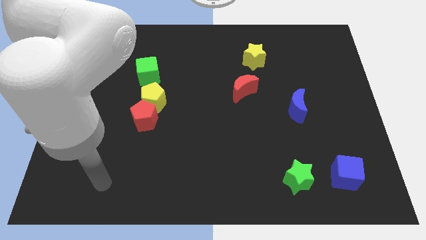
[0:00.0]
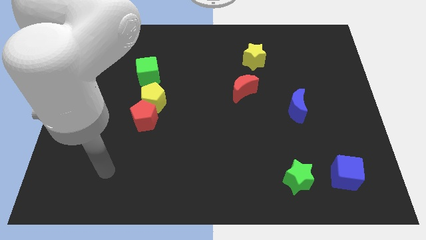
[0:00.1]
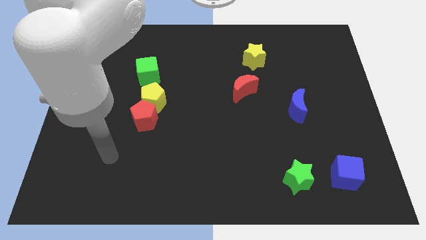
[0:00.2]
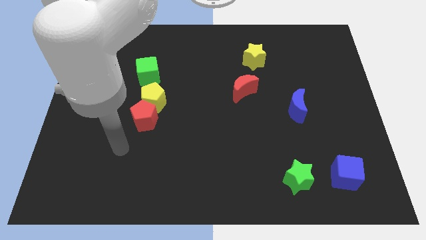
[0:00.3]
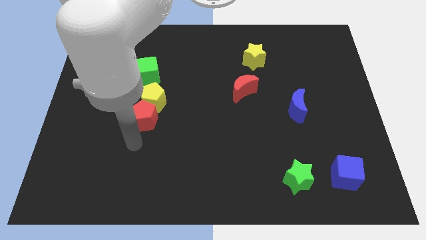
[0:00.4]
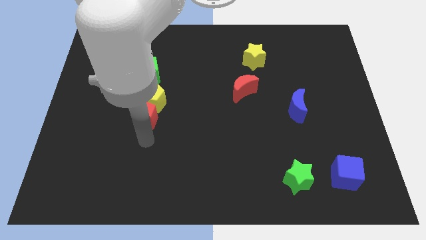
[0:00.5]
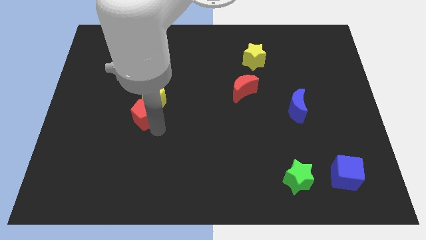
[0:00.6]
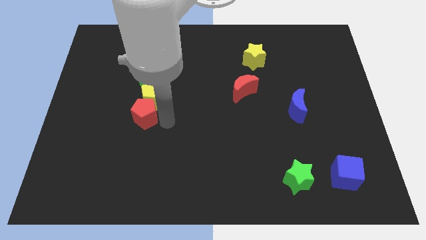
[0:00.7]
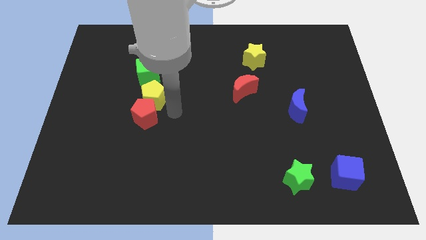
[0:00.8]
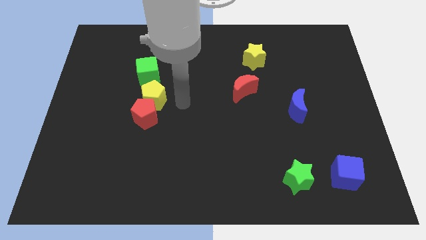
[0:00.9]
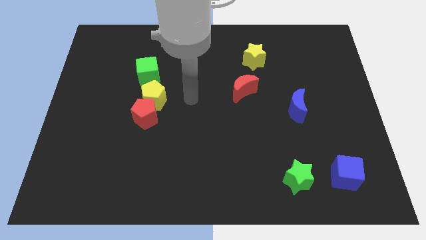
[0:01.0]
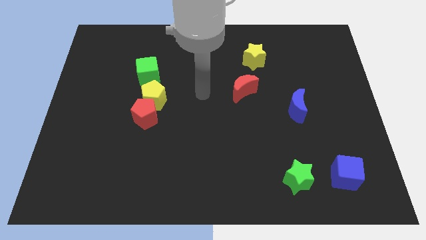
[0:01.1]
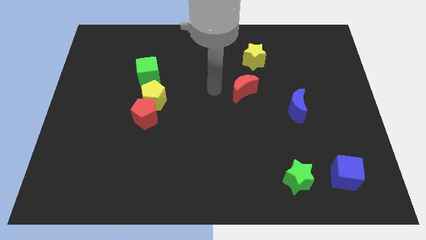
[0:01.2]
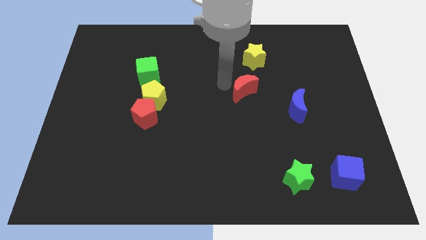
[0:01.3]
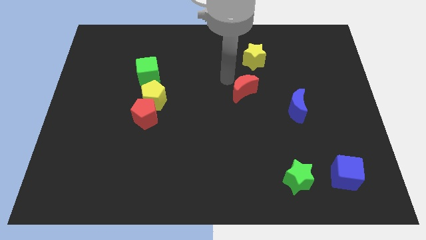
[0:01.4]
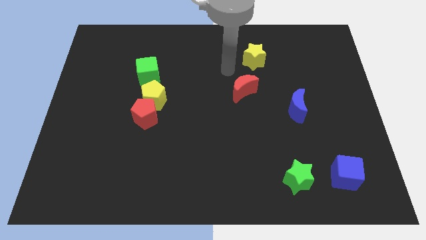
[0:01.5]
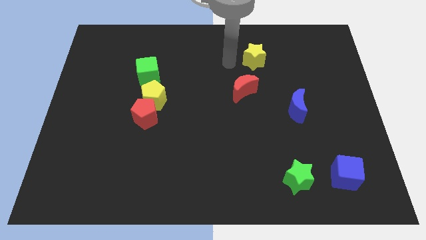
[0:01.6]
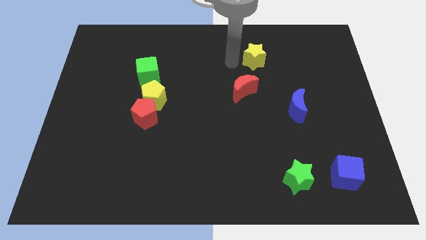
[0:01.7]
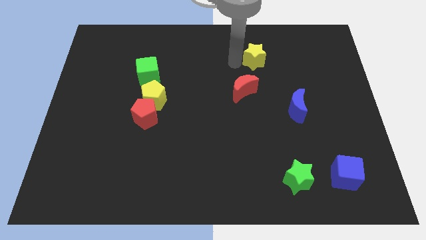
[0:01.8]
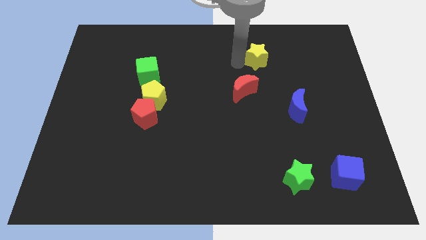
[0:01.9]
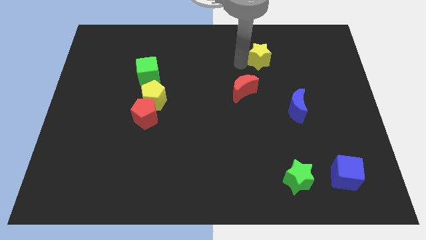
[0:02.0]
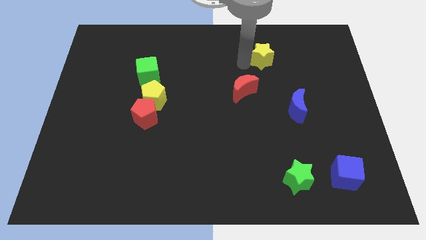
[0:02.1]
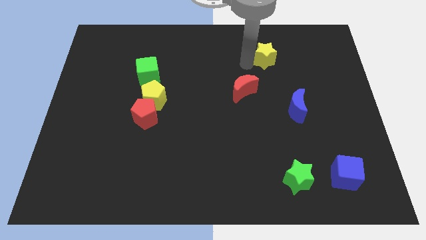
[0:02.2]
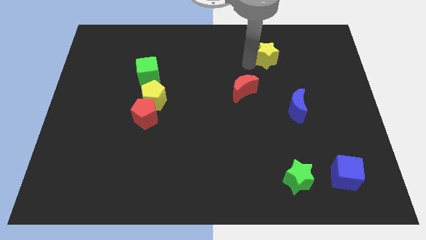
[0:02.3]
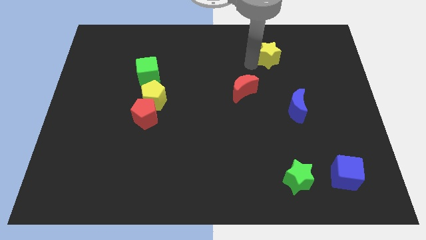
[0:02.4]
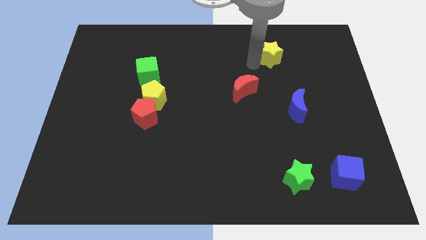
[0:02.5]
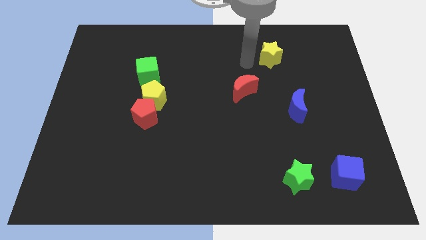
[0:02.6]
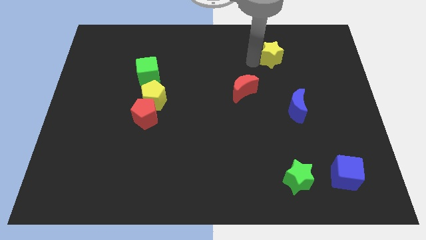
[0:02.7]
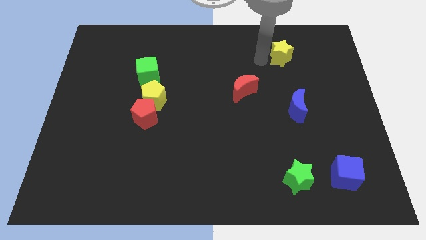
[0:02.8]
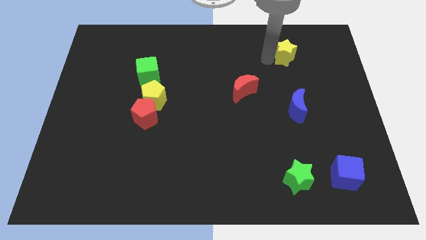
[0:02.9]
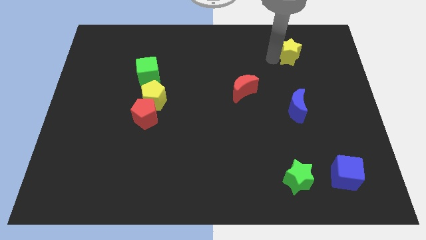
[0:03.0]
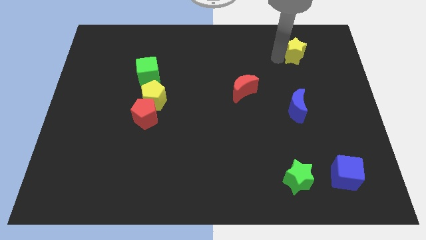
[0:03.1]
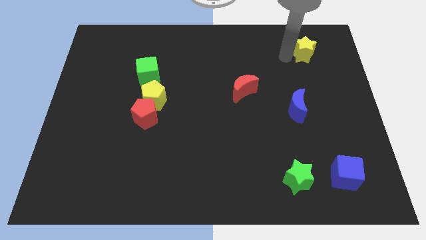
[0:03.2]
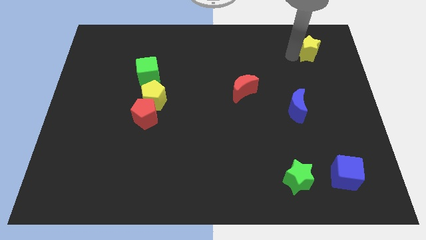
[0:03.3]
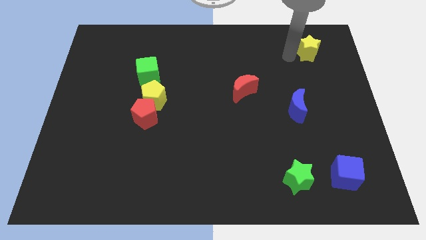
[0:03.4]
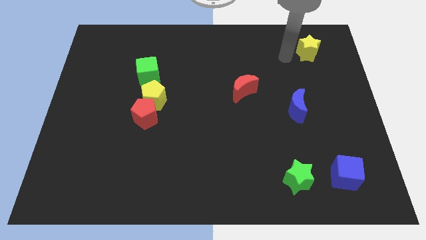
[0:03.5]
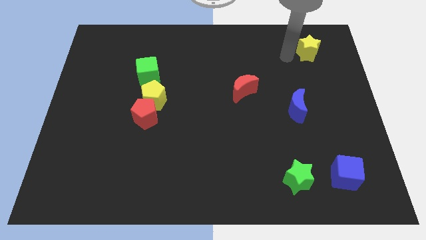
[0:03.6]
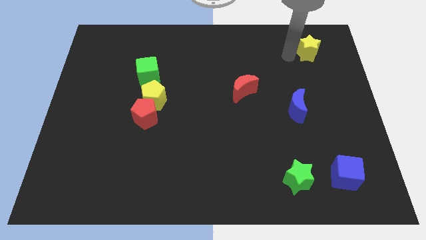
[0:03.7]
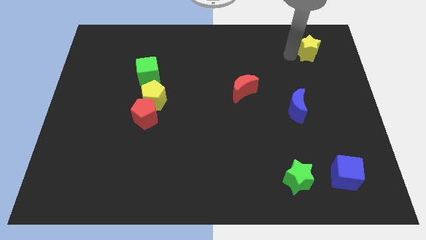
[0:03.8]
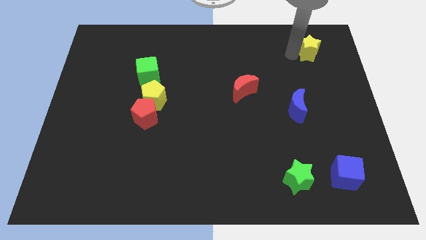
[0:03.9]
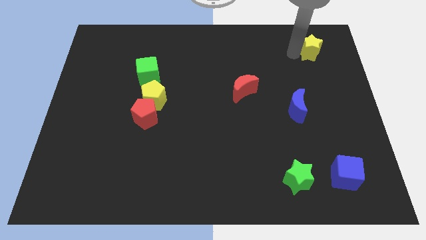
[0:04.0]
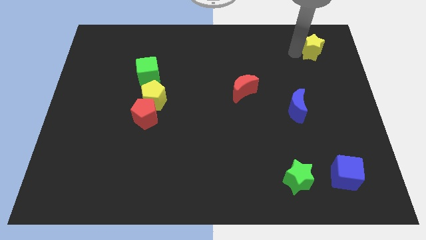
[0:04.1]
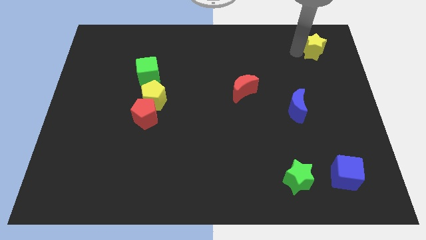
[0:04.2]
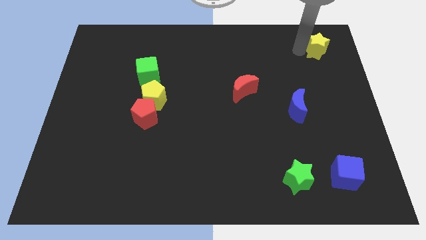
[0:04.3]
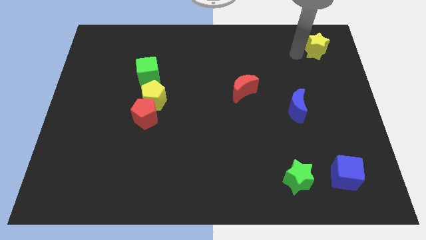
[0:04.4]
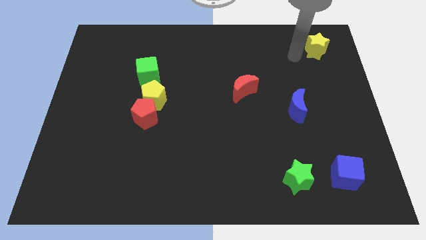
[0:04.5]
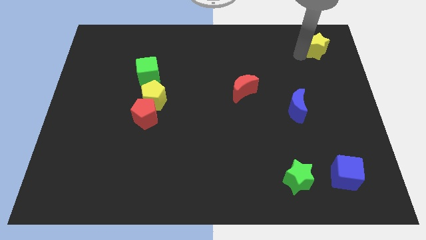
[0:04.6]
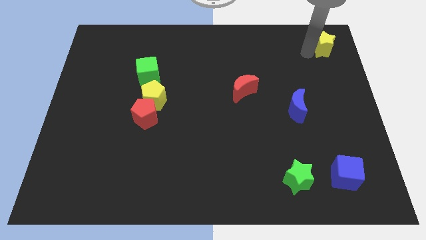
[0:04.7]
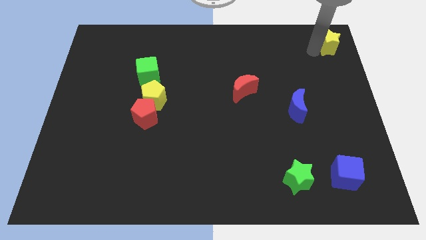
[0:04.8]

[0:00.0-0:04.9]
push the yellow star to the top right corner

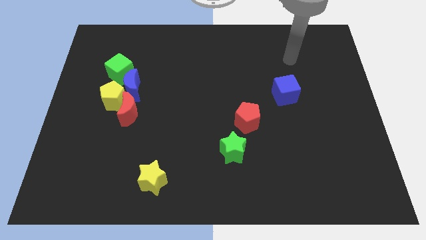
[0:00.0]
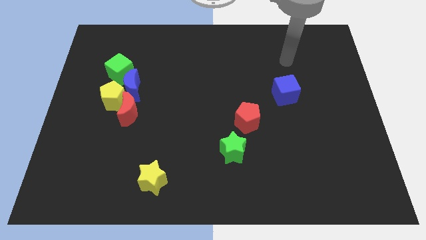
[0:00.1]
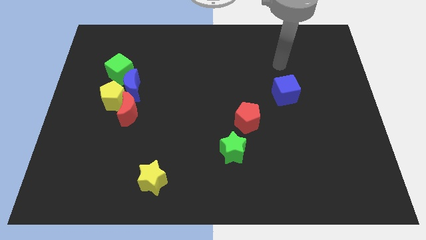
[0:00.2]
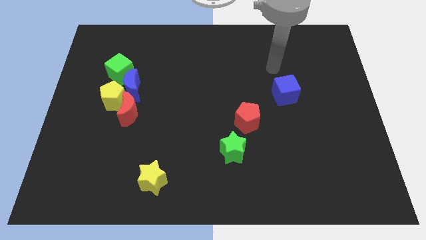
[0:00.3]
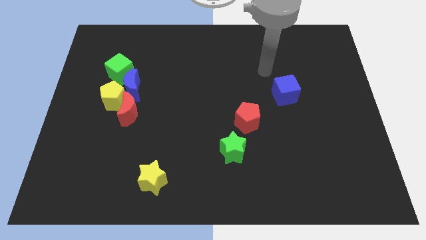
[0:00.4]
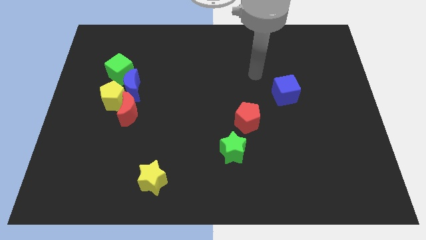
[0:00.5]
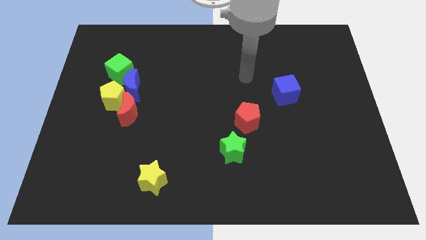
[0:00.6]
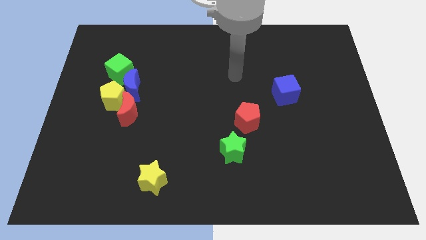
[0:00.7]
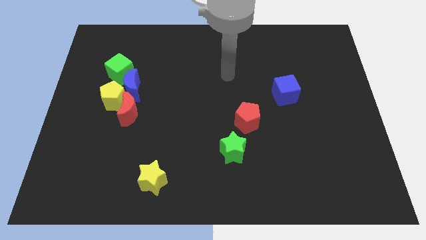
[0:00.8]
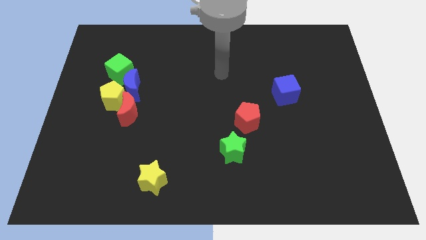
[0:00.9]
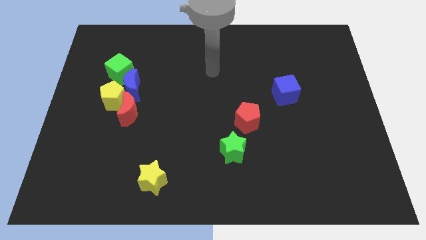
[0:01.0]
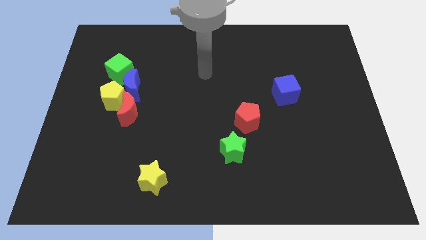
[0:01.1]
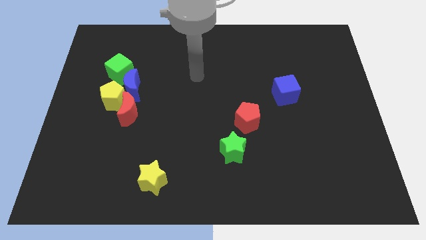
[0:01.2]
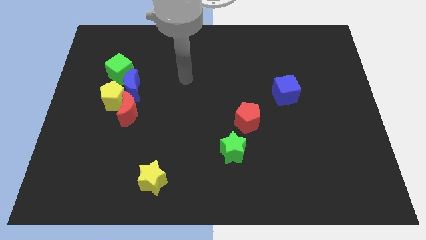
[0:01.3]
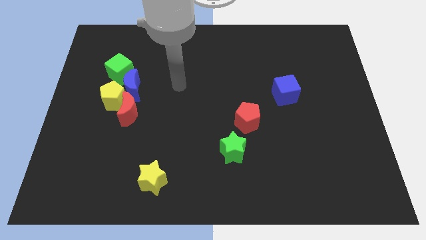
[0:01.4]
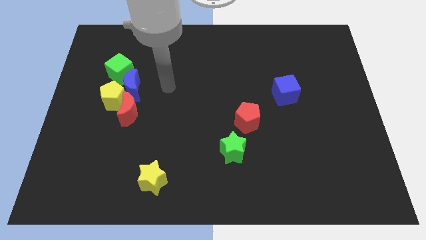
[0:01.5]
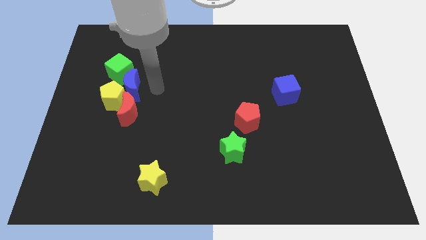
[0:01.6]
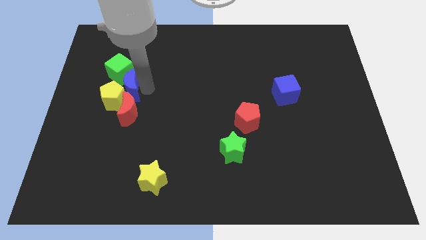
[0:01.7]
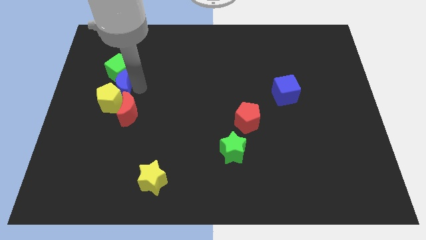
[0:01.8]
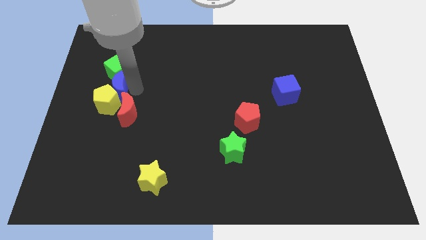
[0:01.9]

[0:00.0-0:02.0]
move the yellow pentagon to the center left
